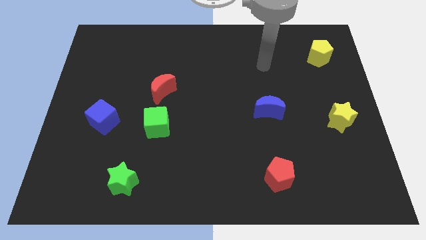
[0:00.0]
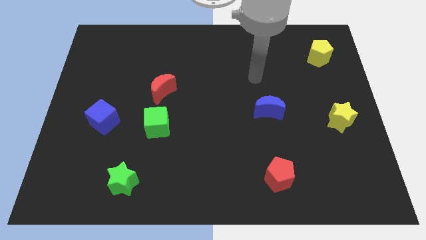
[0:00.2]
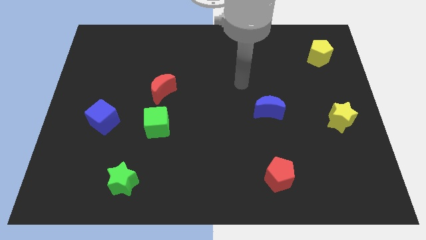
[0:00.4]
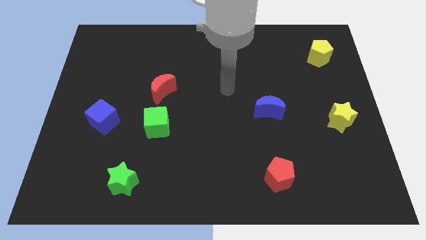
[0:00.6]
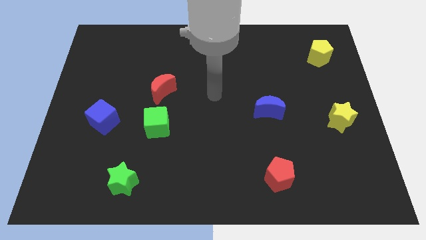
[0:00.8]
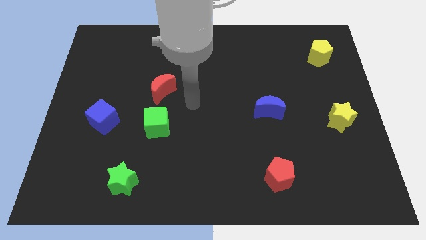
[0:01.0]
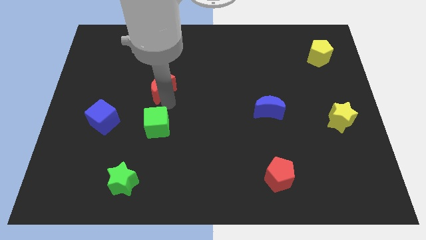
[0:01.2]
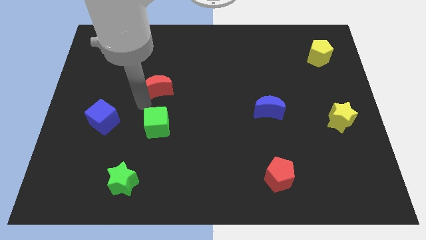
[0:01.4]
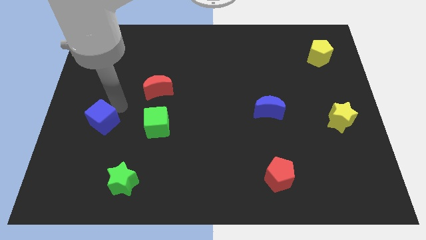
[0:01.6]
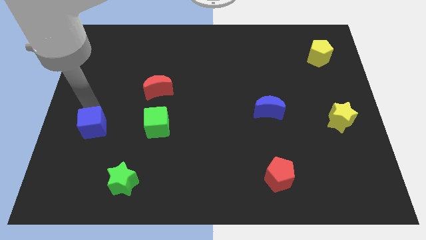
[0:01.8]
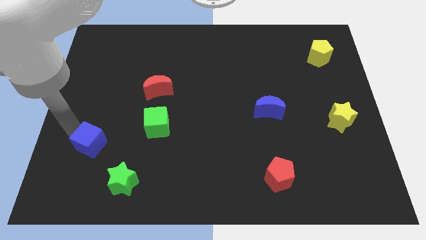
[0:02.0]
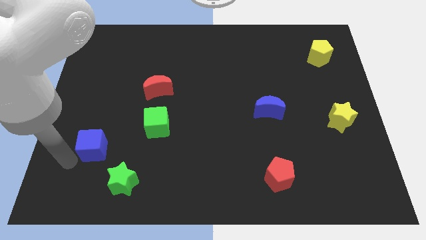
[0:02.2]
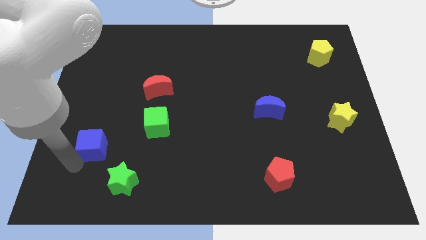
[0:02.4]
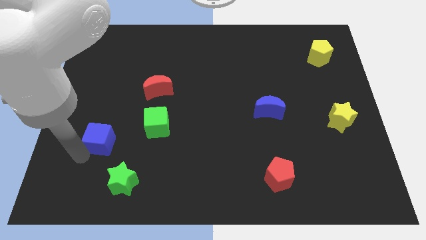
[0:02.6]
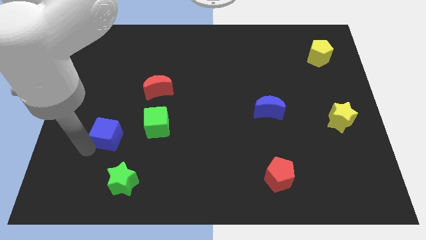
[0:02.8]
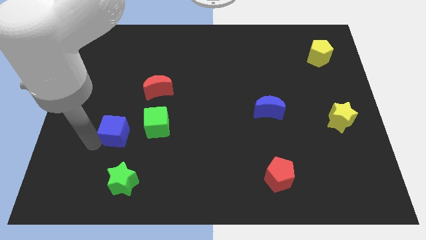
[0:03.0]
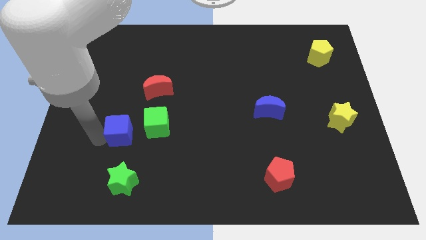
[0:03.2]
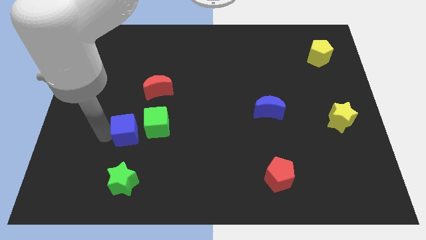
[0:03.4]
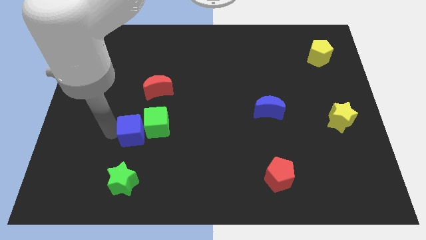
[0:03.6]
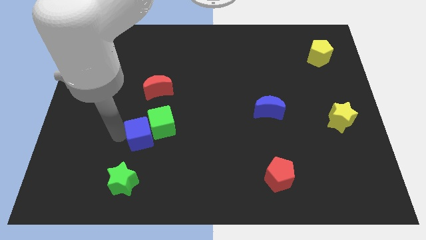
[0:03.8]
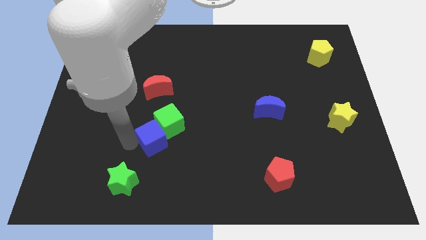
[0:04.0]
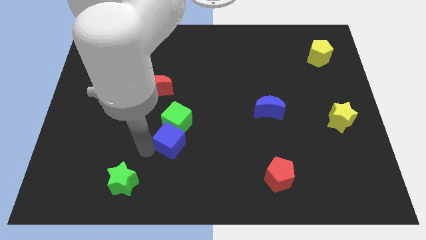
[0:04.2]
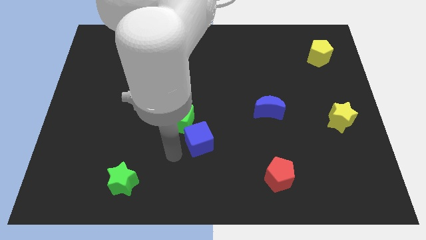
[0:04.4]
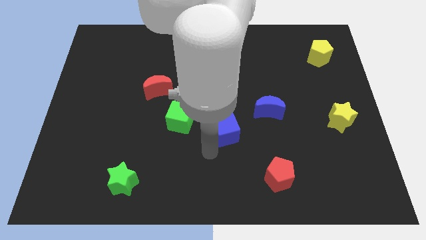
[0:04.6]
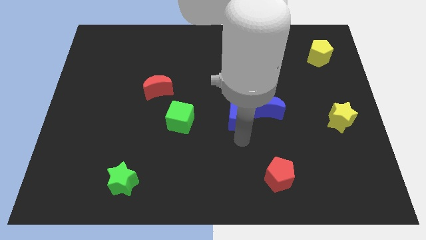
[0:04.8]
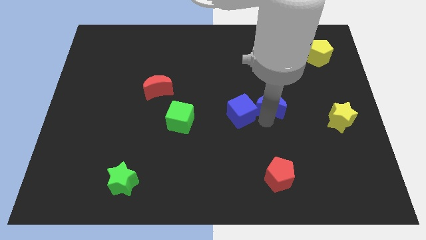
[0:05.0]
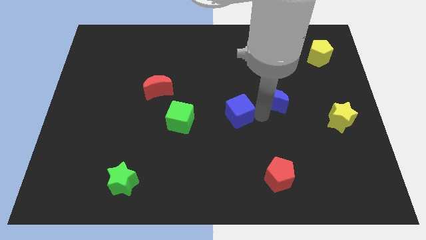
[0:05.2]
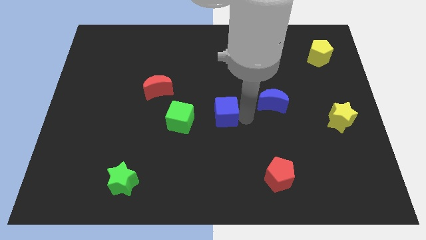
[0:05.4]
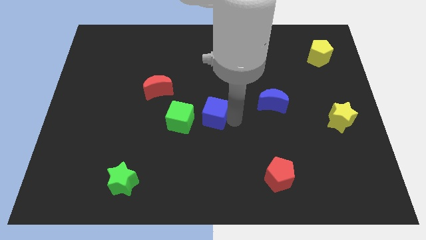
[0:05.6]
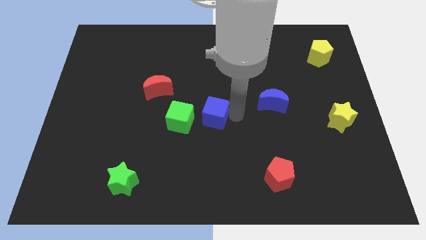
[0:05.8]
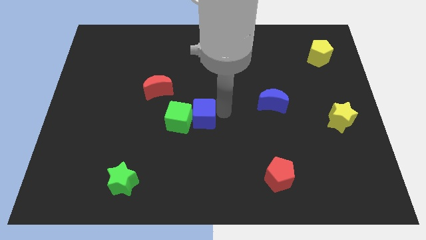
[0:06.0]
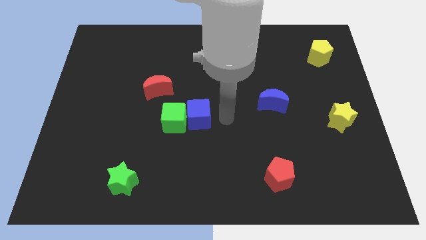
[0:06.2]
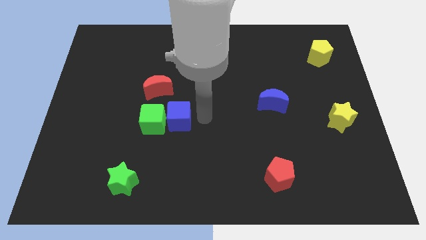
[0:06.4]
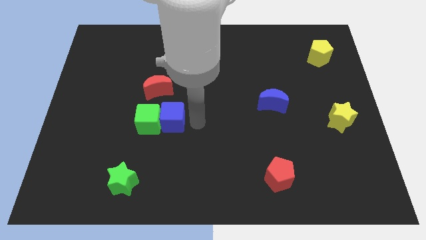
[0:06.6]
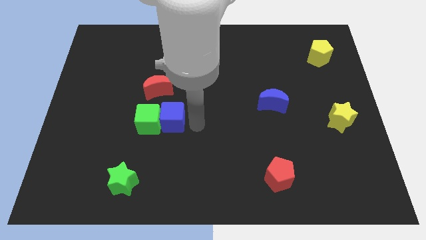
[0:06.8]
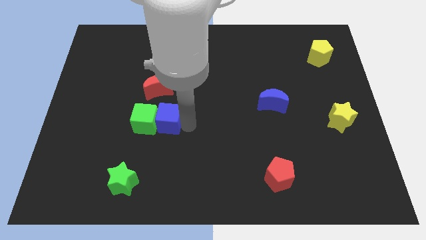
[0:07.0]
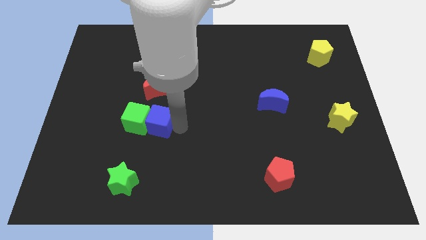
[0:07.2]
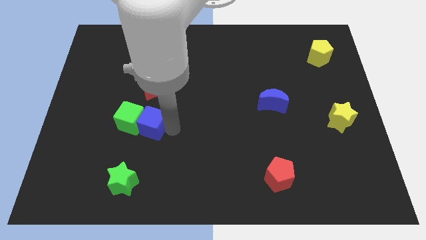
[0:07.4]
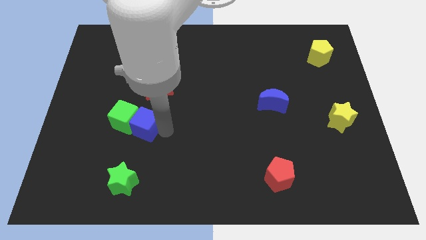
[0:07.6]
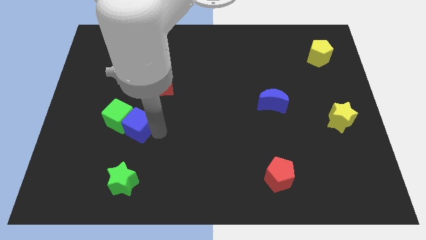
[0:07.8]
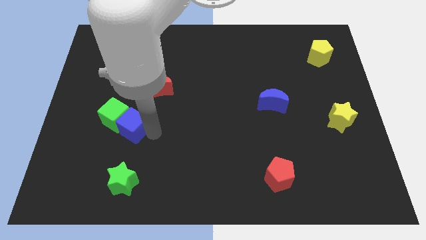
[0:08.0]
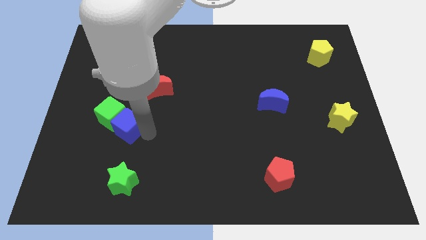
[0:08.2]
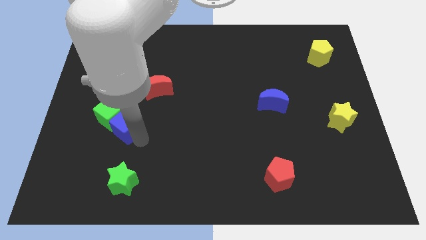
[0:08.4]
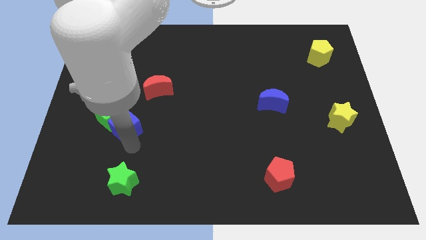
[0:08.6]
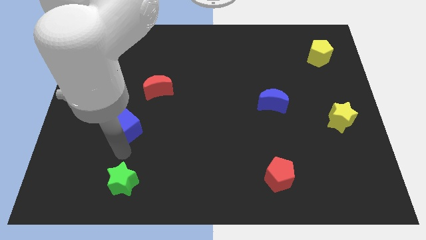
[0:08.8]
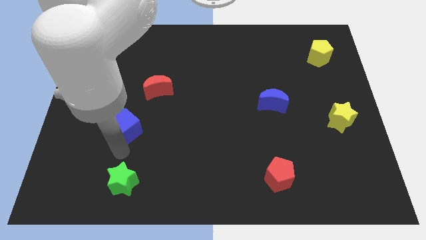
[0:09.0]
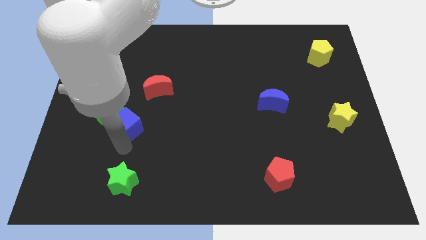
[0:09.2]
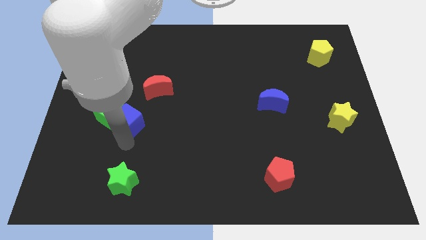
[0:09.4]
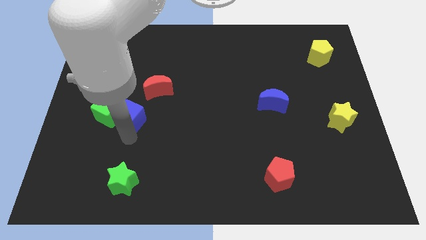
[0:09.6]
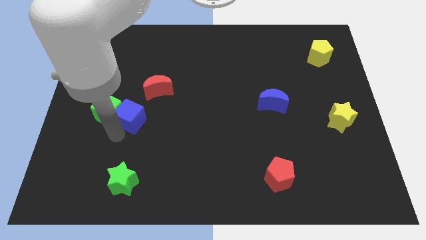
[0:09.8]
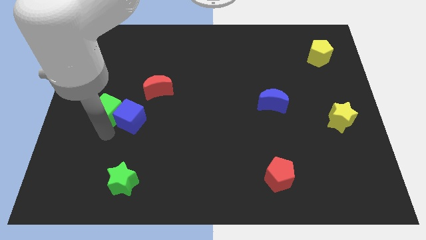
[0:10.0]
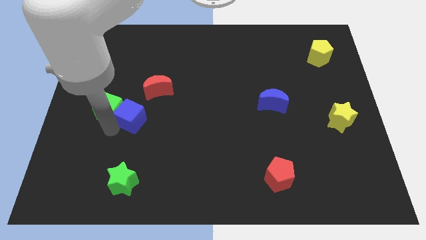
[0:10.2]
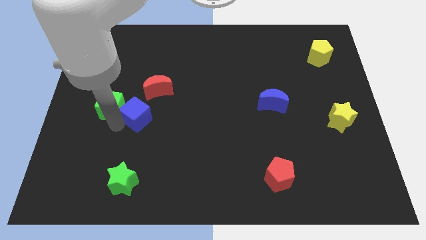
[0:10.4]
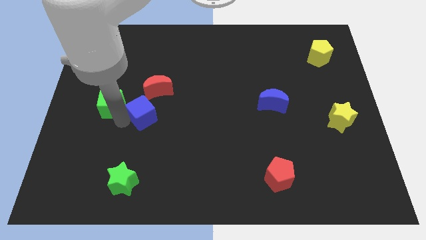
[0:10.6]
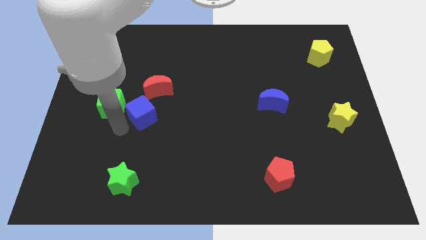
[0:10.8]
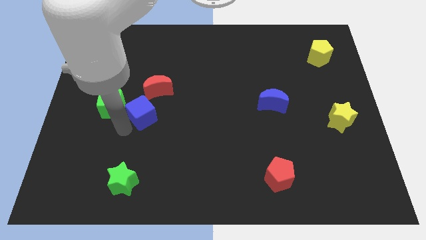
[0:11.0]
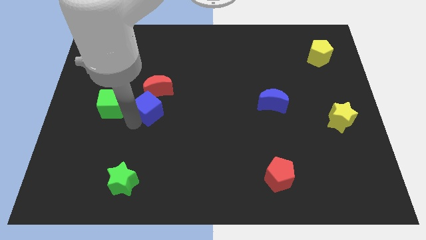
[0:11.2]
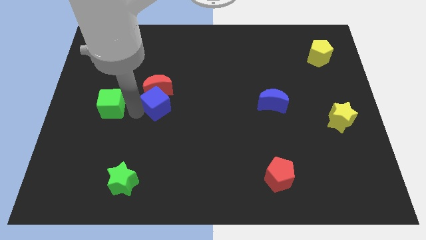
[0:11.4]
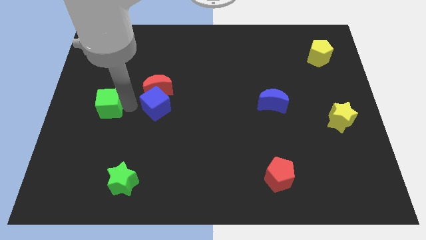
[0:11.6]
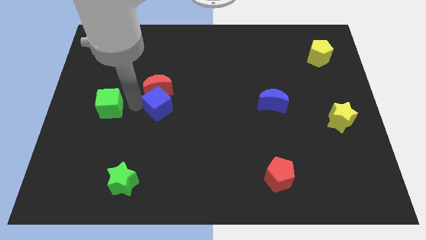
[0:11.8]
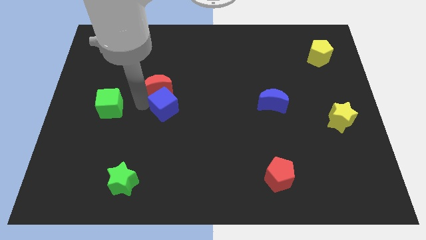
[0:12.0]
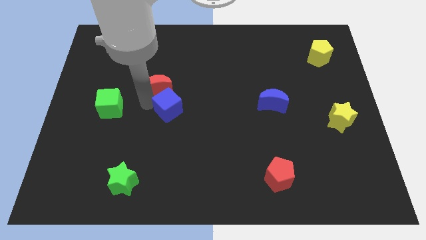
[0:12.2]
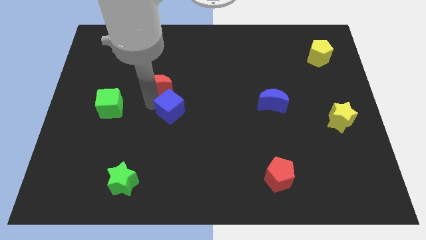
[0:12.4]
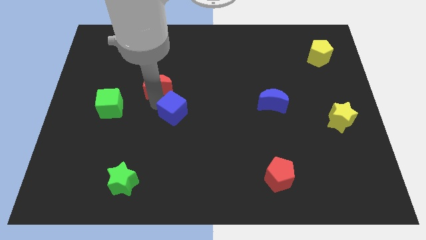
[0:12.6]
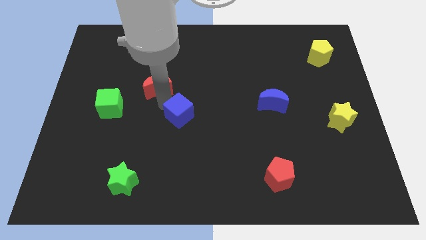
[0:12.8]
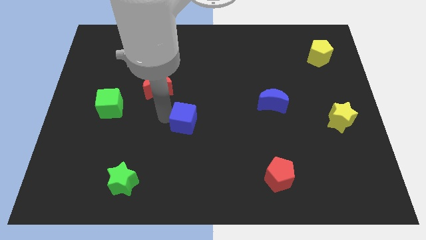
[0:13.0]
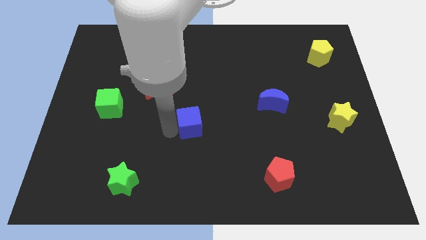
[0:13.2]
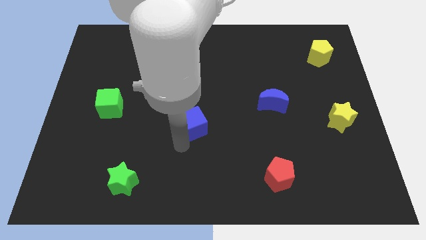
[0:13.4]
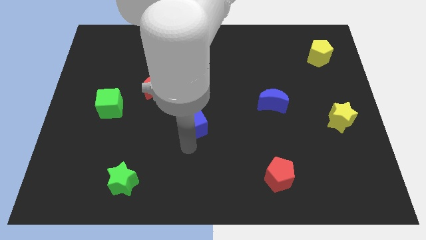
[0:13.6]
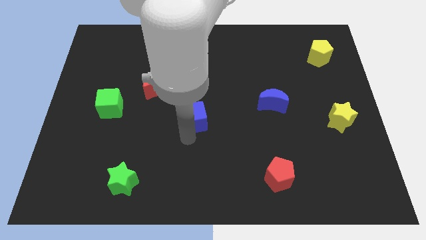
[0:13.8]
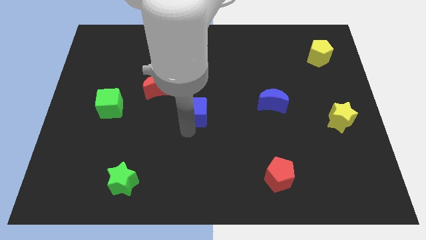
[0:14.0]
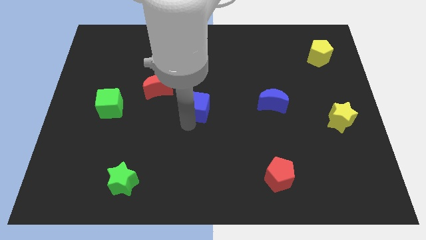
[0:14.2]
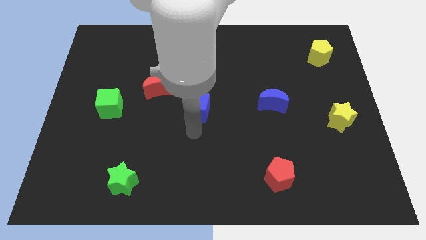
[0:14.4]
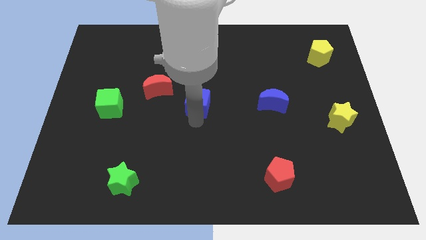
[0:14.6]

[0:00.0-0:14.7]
push the blue cube to the right of the red moon
